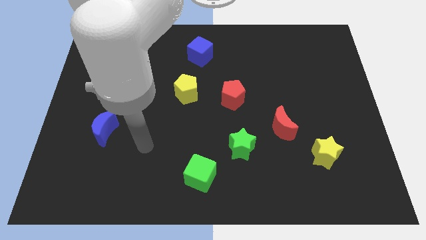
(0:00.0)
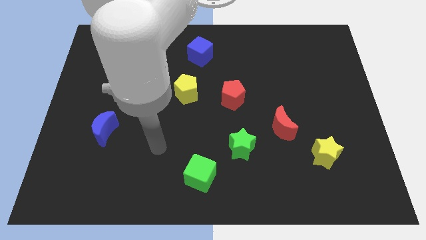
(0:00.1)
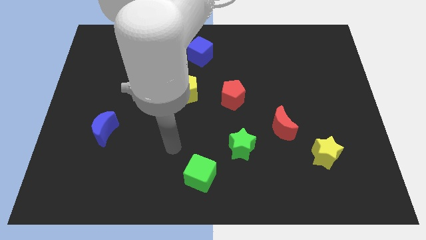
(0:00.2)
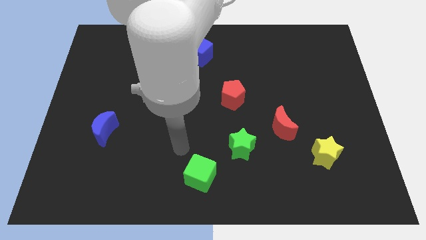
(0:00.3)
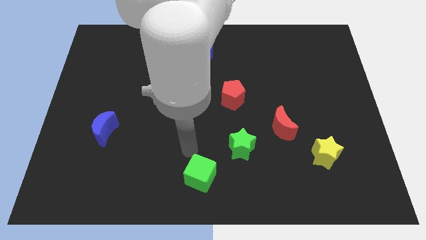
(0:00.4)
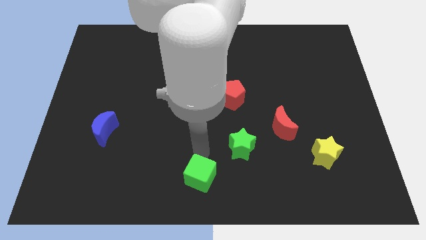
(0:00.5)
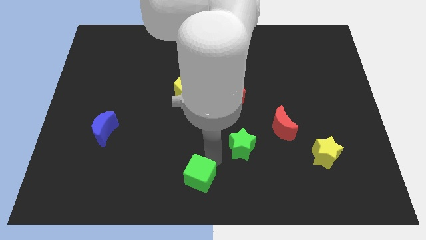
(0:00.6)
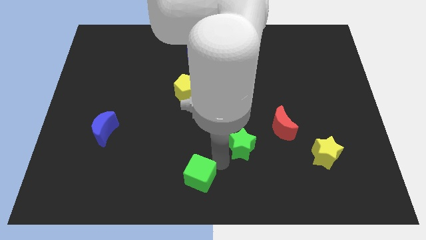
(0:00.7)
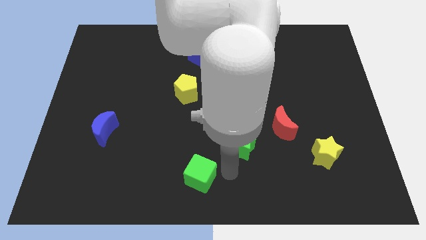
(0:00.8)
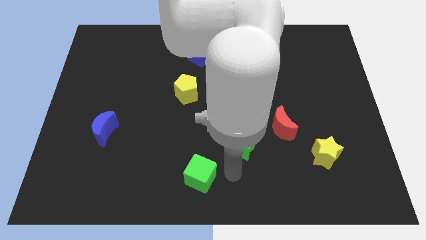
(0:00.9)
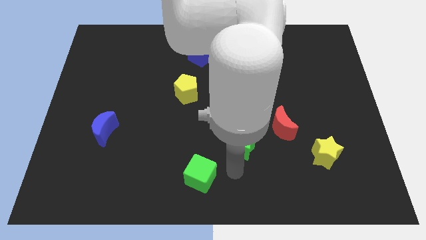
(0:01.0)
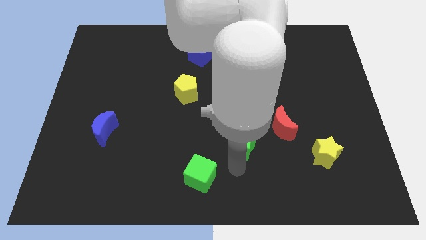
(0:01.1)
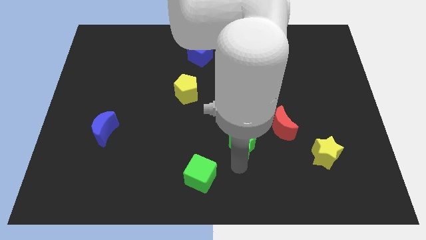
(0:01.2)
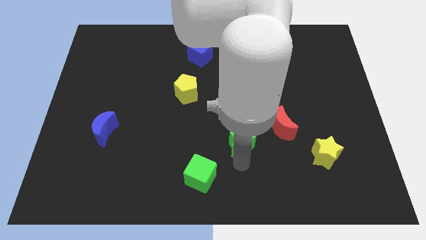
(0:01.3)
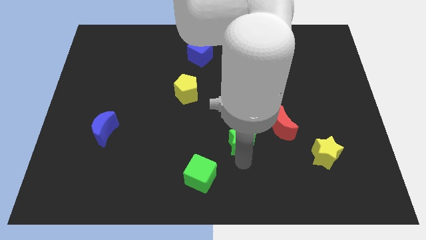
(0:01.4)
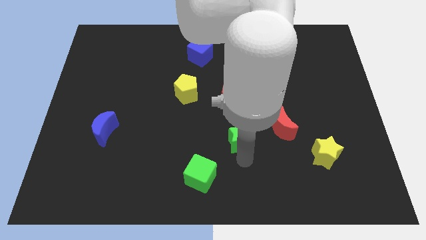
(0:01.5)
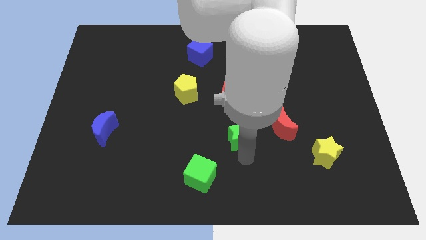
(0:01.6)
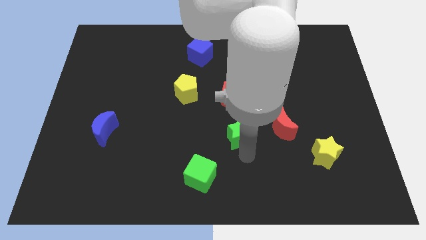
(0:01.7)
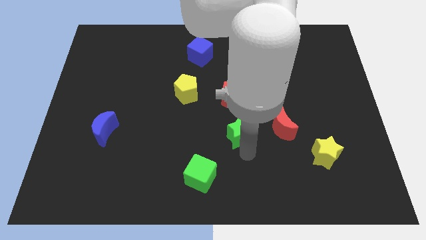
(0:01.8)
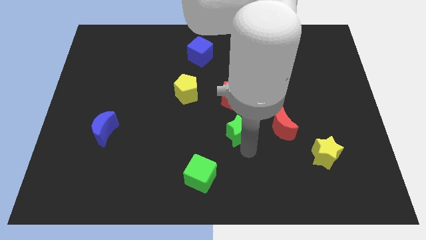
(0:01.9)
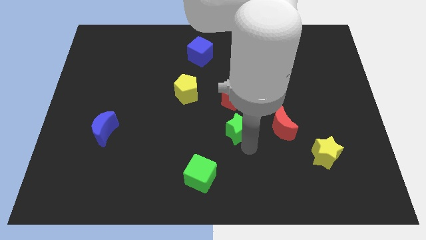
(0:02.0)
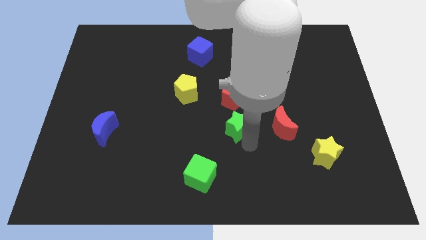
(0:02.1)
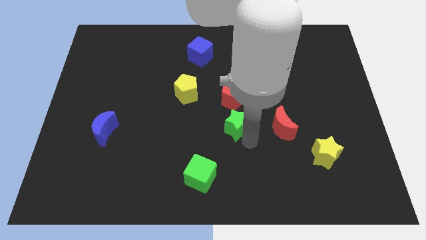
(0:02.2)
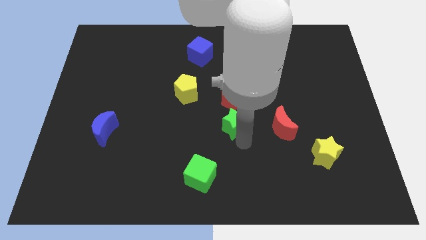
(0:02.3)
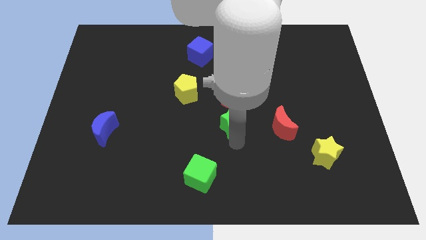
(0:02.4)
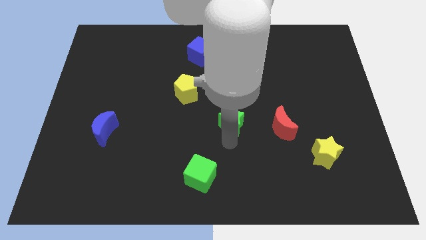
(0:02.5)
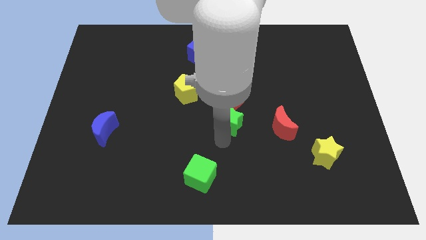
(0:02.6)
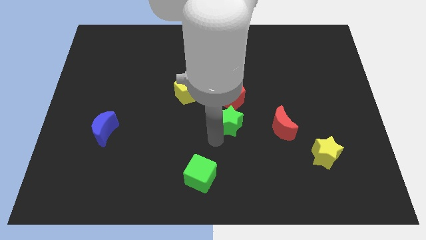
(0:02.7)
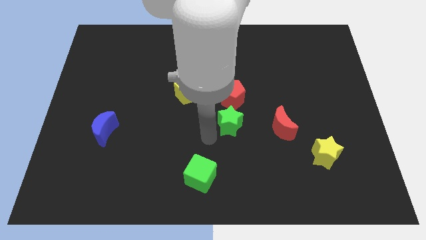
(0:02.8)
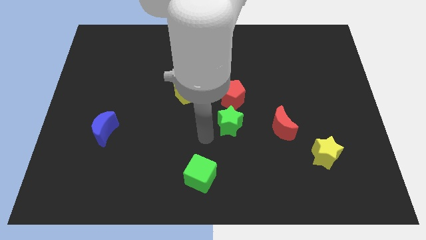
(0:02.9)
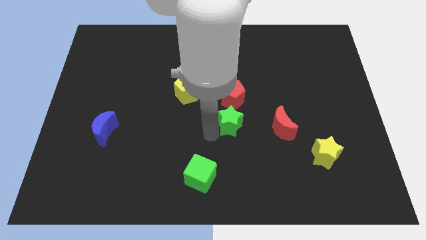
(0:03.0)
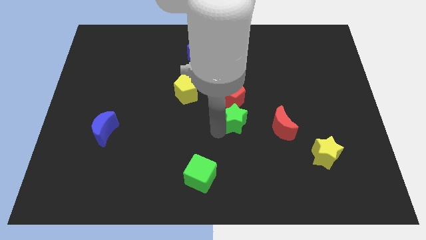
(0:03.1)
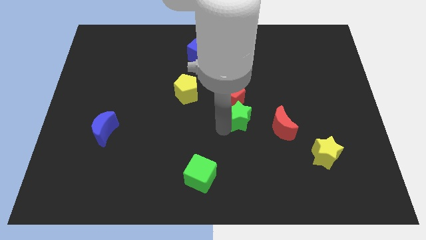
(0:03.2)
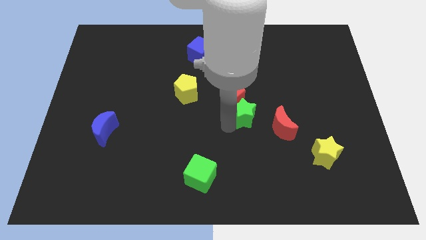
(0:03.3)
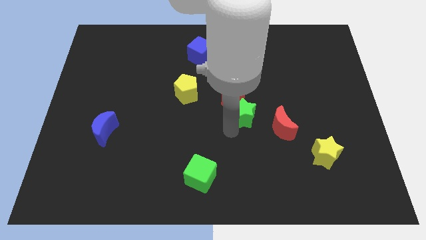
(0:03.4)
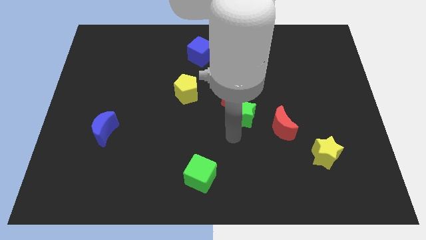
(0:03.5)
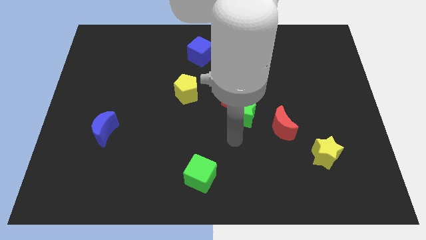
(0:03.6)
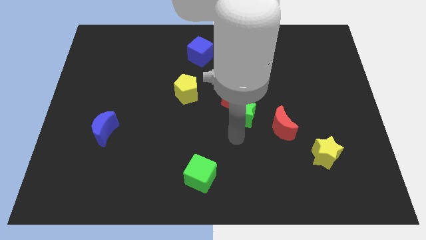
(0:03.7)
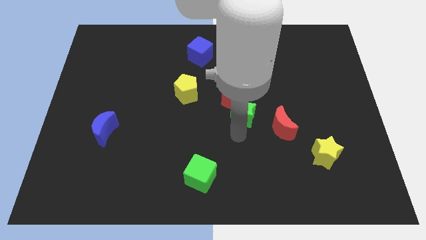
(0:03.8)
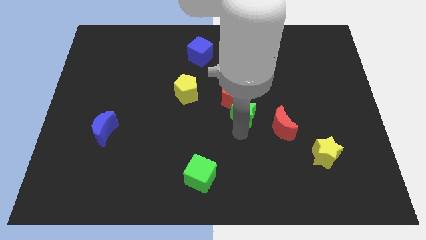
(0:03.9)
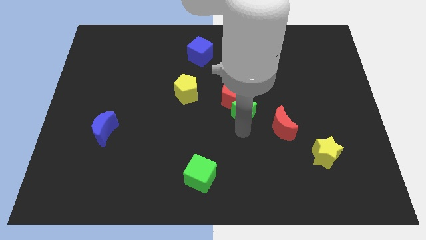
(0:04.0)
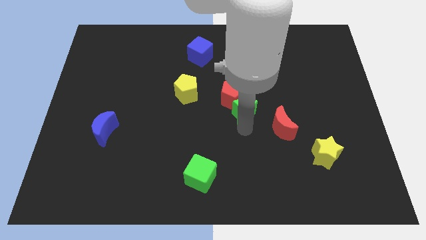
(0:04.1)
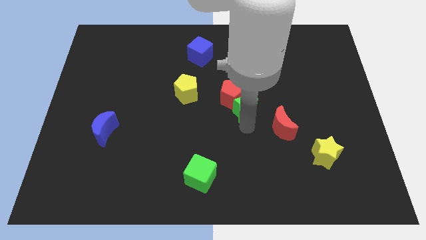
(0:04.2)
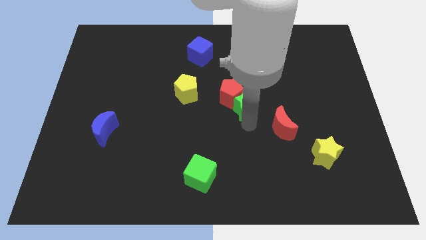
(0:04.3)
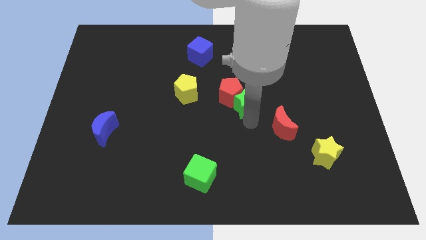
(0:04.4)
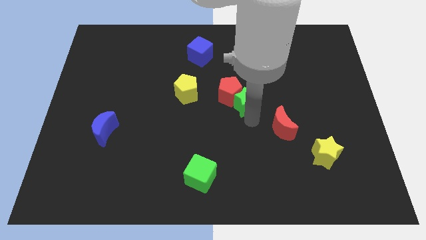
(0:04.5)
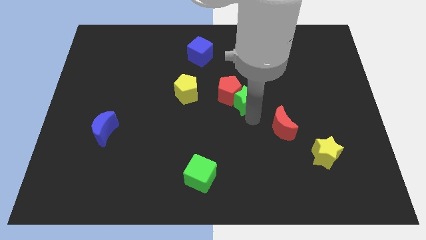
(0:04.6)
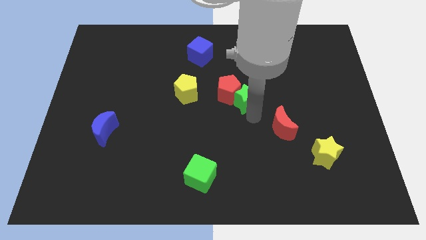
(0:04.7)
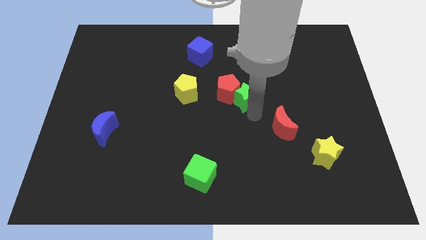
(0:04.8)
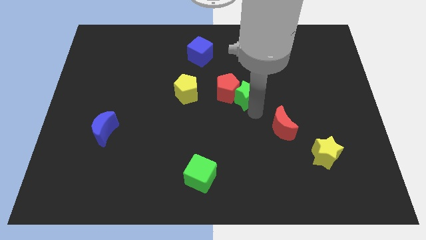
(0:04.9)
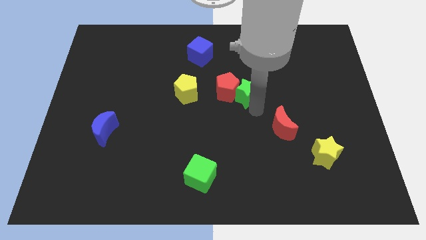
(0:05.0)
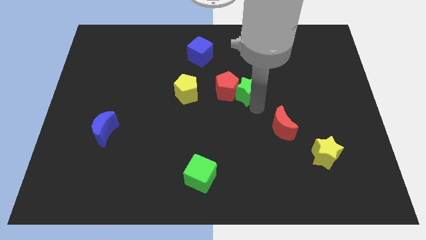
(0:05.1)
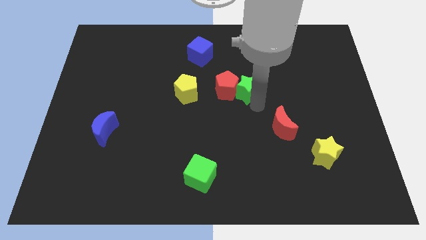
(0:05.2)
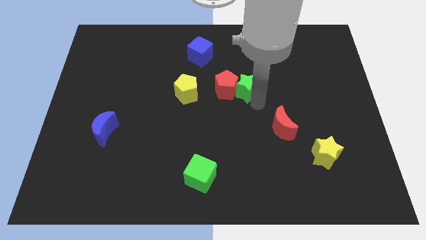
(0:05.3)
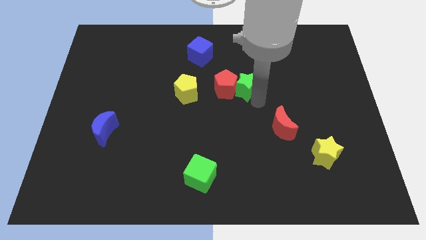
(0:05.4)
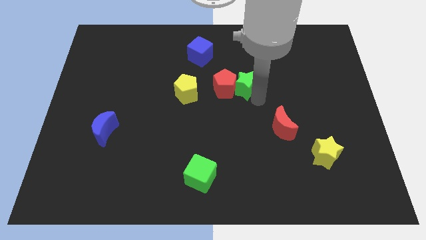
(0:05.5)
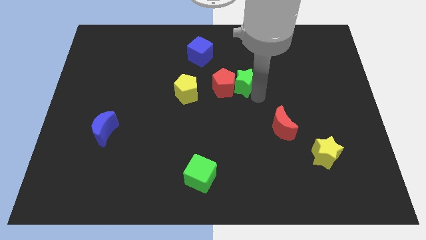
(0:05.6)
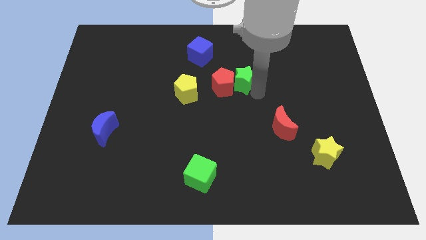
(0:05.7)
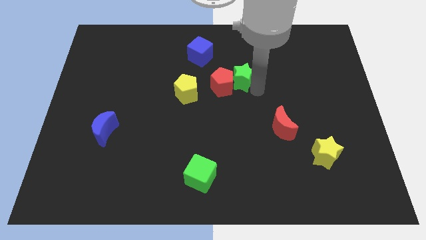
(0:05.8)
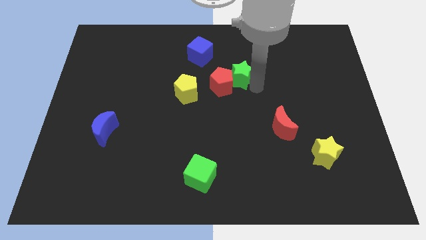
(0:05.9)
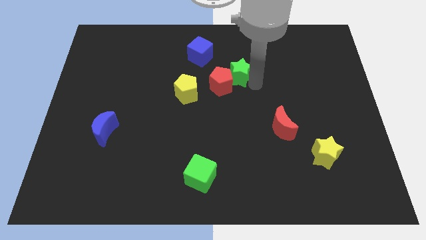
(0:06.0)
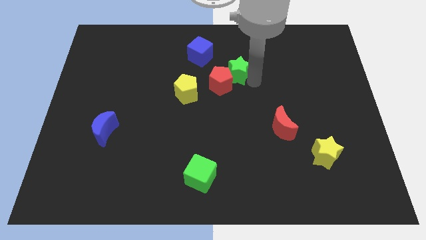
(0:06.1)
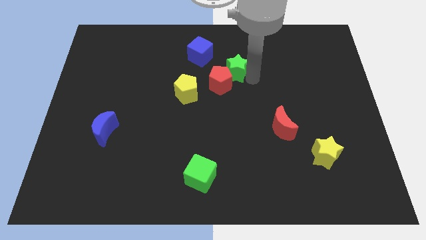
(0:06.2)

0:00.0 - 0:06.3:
put the green star above the red pentagon

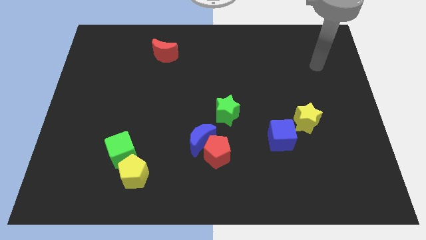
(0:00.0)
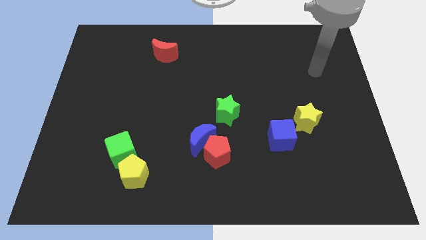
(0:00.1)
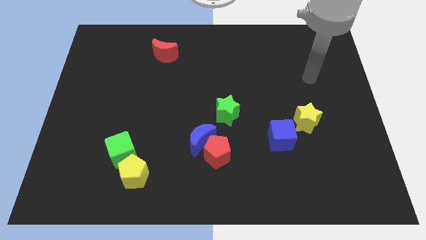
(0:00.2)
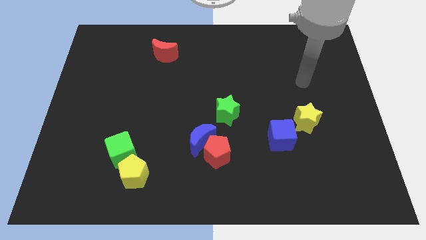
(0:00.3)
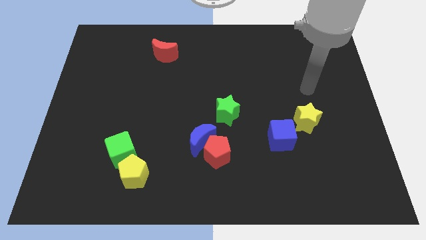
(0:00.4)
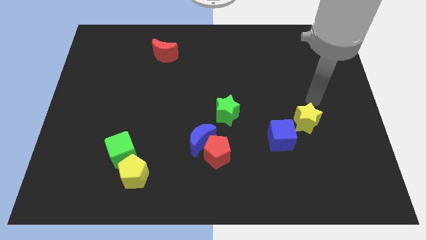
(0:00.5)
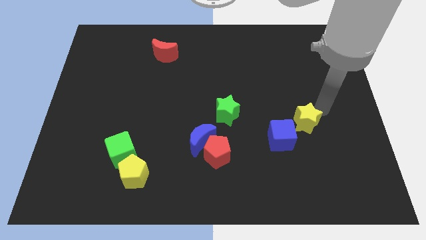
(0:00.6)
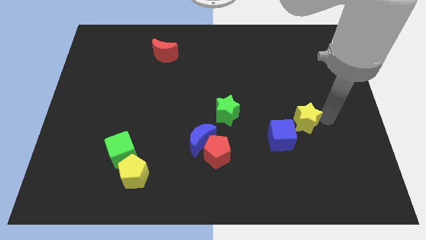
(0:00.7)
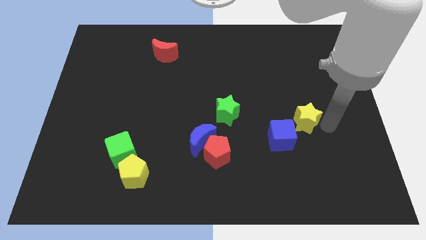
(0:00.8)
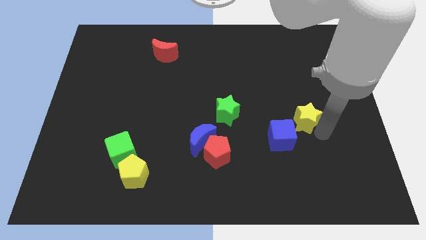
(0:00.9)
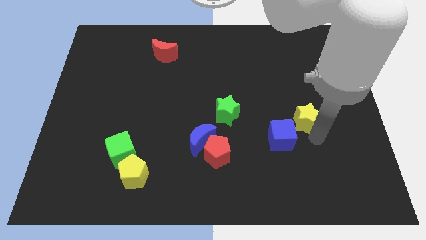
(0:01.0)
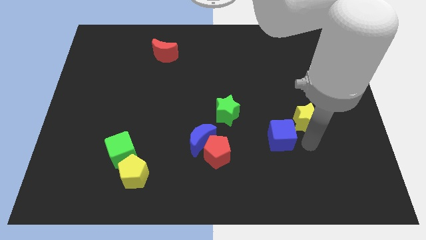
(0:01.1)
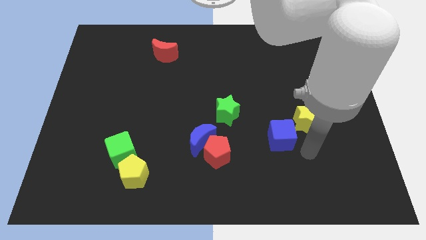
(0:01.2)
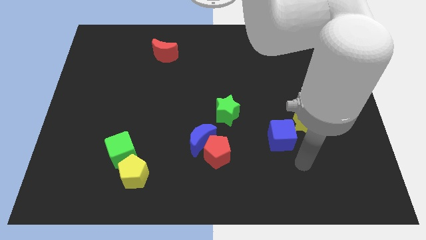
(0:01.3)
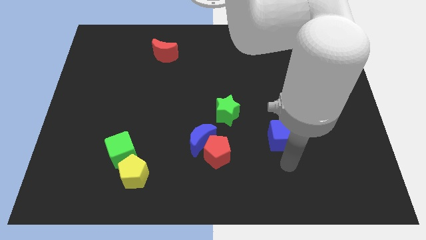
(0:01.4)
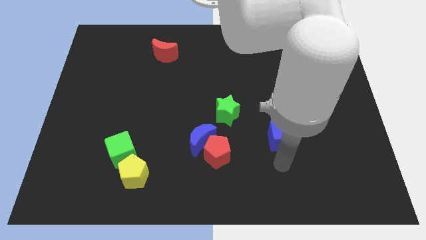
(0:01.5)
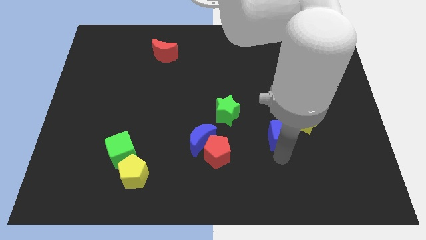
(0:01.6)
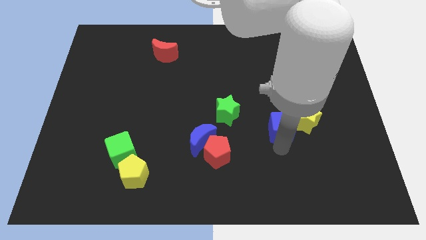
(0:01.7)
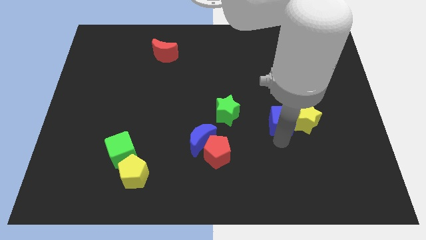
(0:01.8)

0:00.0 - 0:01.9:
slide the blue cube to the top left of the yellow star
